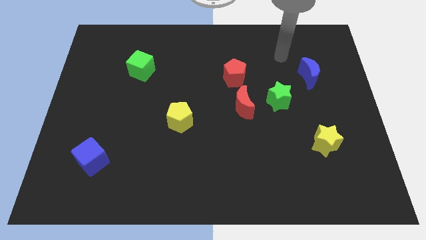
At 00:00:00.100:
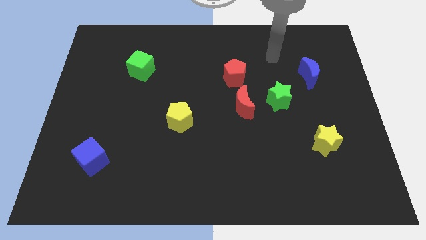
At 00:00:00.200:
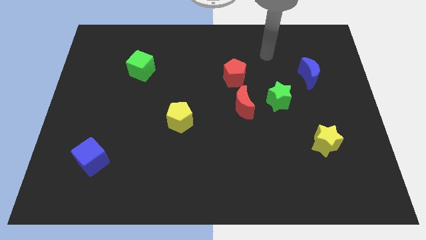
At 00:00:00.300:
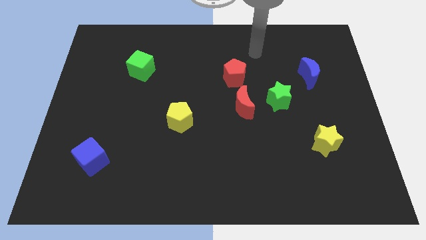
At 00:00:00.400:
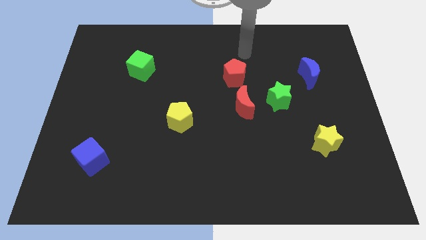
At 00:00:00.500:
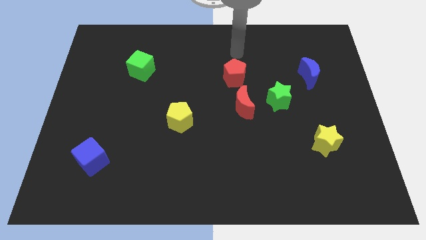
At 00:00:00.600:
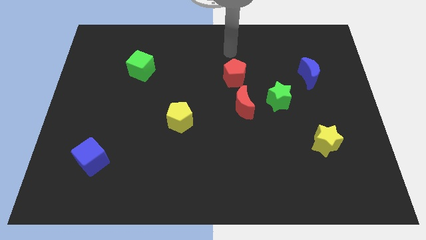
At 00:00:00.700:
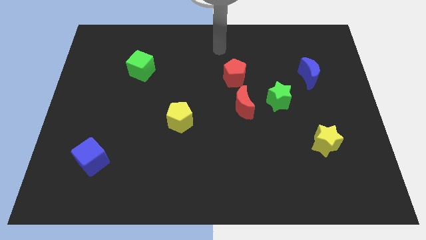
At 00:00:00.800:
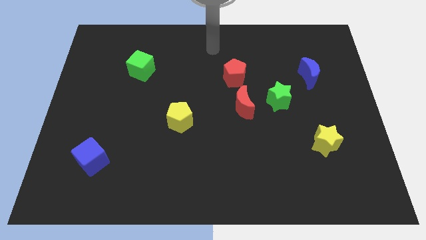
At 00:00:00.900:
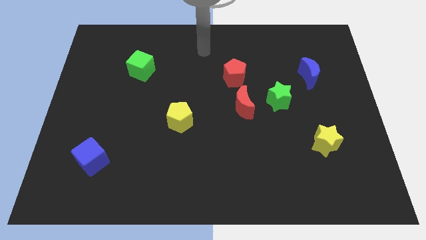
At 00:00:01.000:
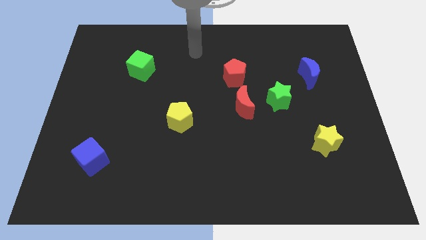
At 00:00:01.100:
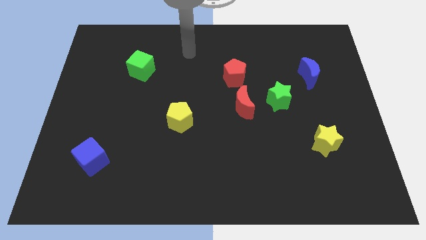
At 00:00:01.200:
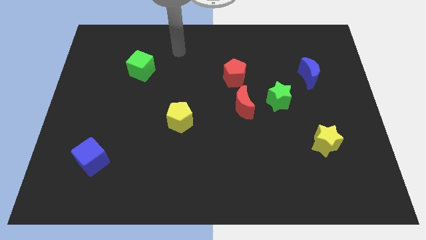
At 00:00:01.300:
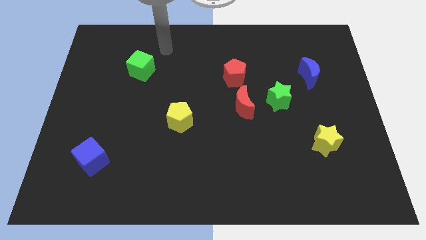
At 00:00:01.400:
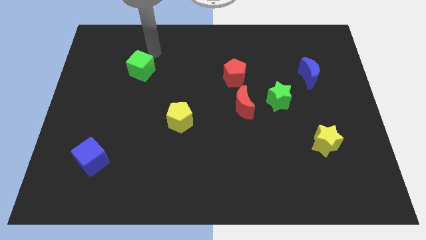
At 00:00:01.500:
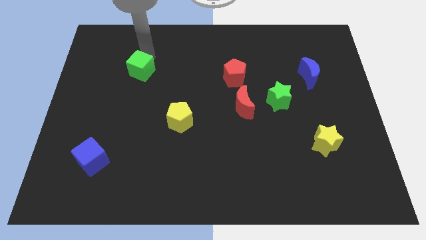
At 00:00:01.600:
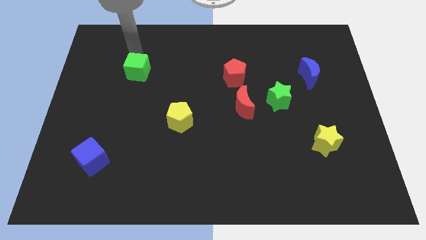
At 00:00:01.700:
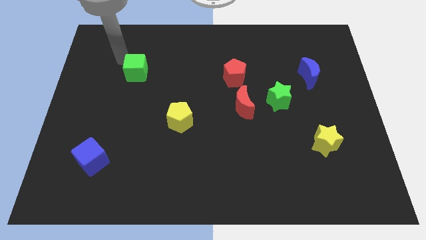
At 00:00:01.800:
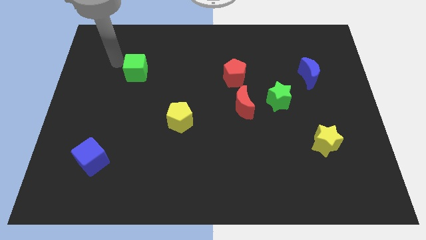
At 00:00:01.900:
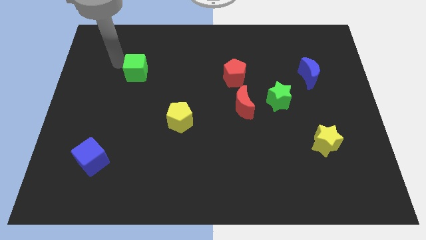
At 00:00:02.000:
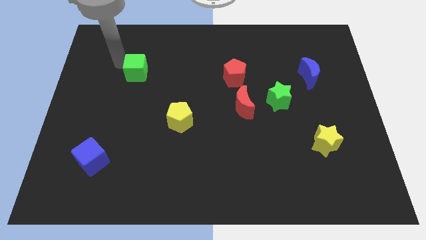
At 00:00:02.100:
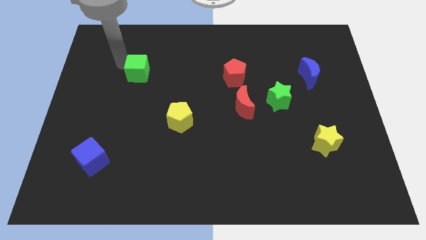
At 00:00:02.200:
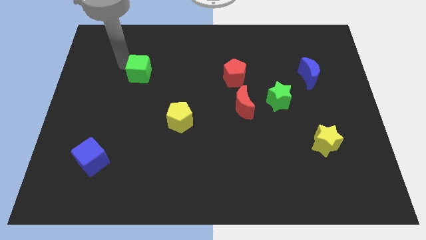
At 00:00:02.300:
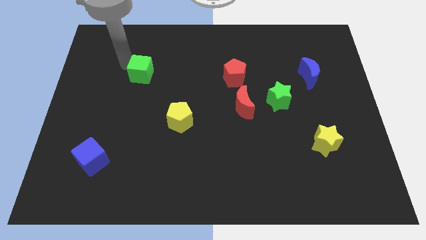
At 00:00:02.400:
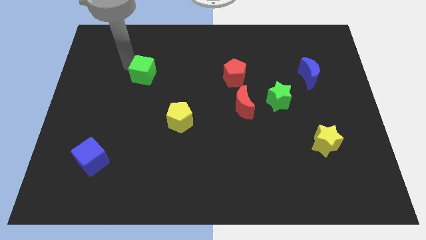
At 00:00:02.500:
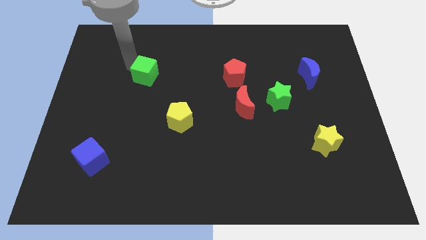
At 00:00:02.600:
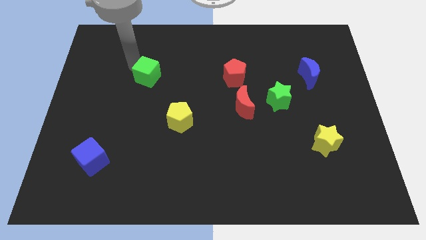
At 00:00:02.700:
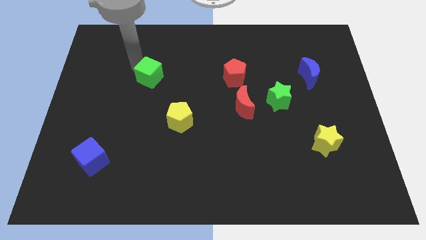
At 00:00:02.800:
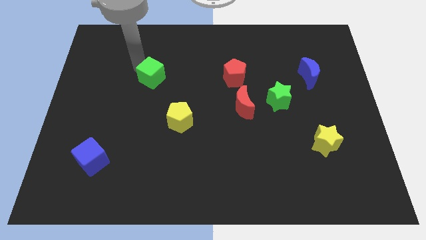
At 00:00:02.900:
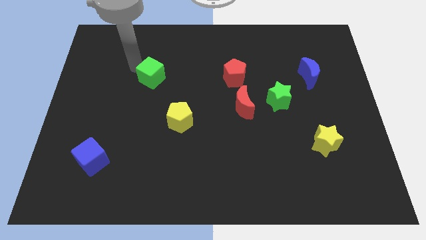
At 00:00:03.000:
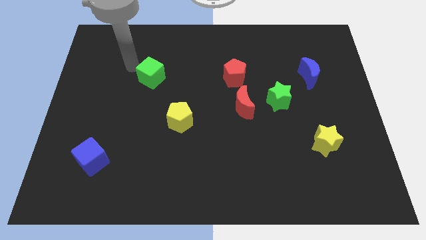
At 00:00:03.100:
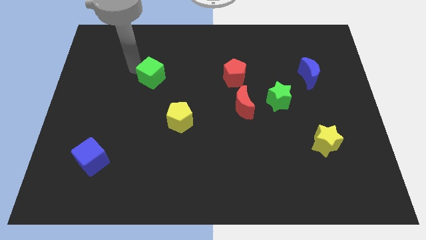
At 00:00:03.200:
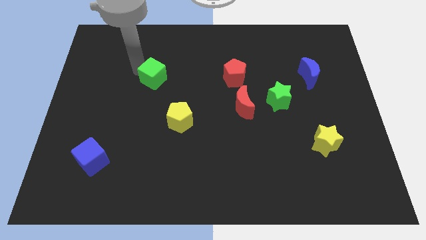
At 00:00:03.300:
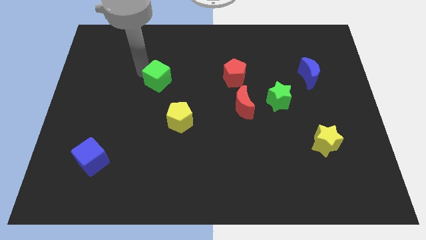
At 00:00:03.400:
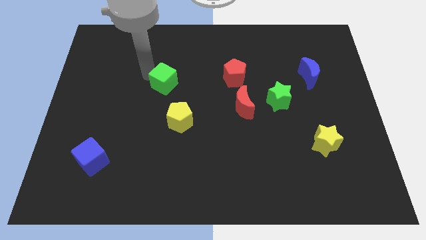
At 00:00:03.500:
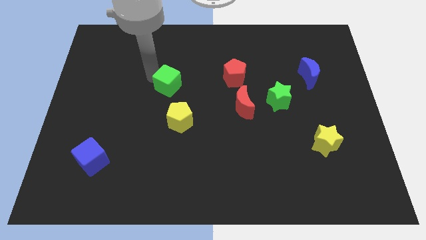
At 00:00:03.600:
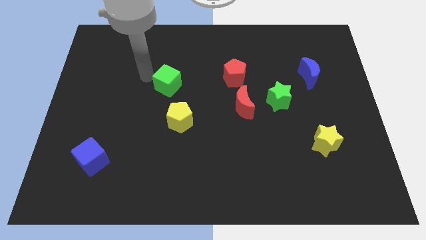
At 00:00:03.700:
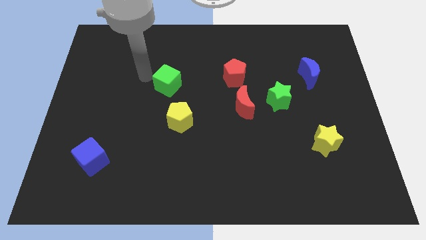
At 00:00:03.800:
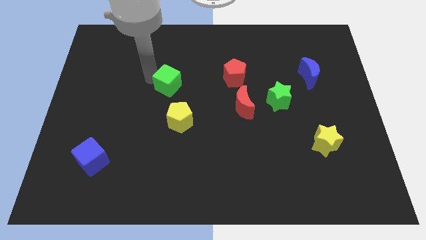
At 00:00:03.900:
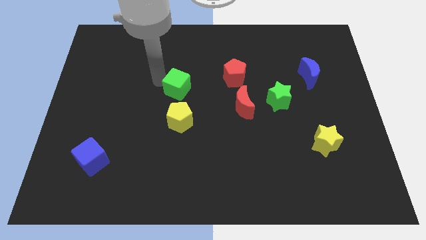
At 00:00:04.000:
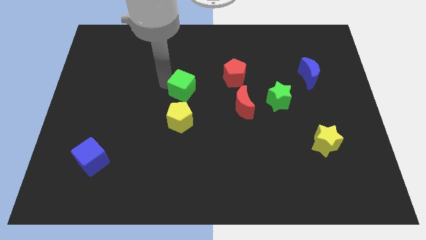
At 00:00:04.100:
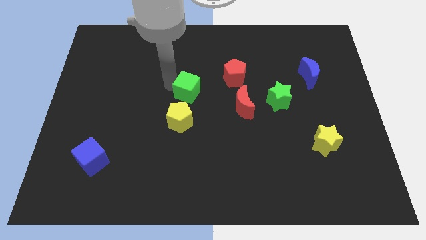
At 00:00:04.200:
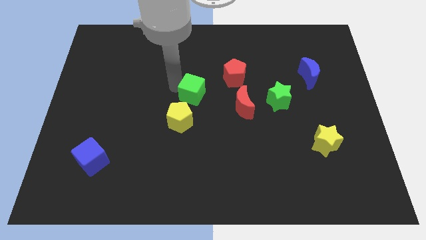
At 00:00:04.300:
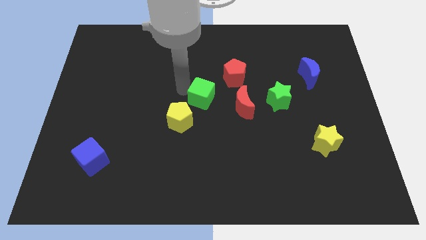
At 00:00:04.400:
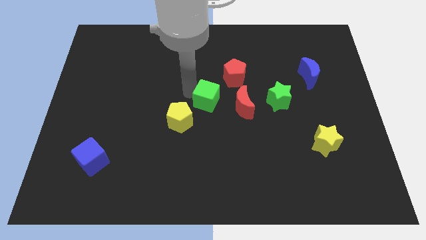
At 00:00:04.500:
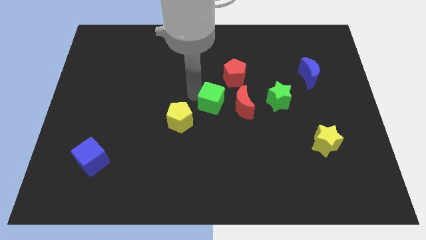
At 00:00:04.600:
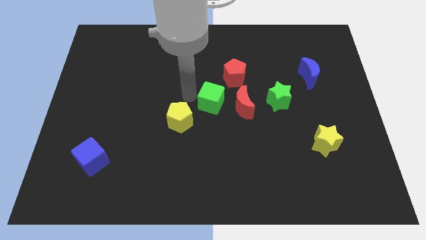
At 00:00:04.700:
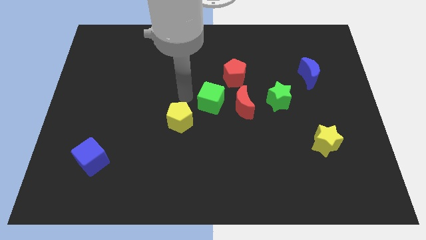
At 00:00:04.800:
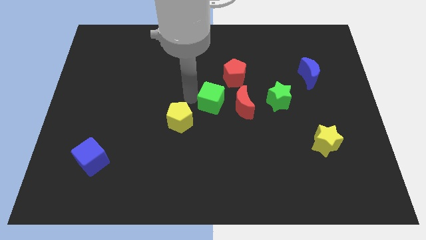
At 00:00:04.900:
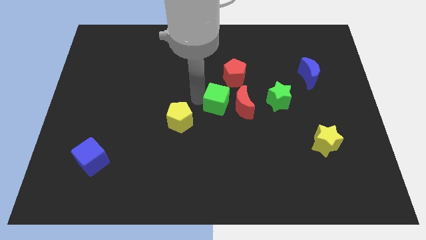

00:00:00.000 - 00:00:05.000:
slide the green cube towards the red moon

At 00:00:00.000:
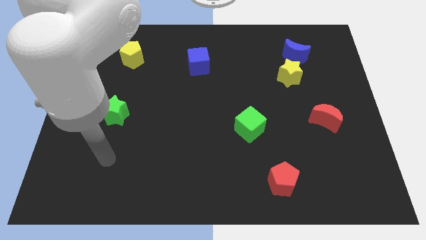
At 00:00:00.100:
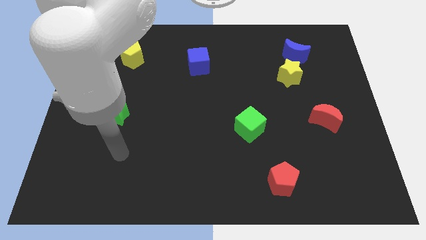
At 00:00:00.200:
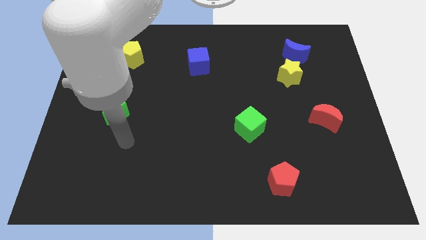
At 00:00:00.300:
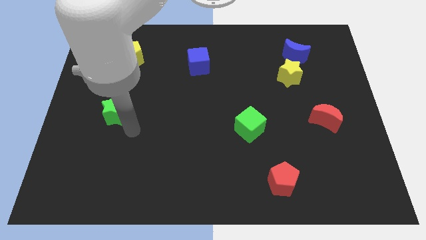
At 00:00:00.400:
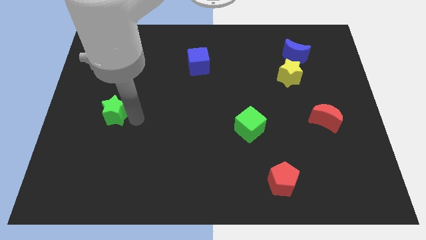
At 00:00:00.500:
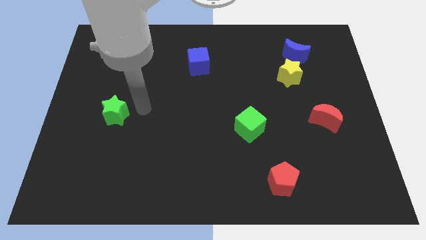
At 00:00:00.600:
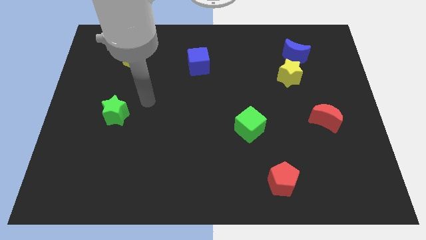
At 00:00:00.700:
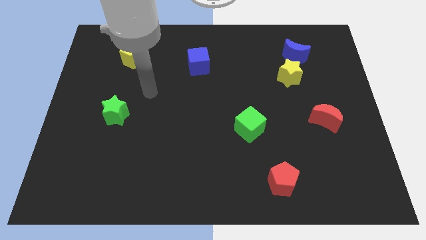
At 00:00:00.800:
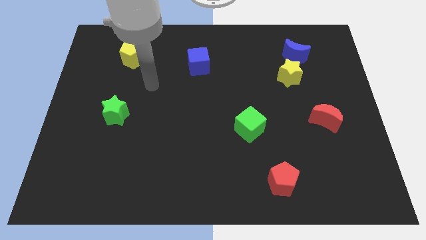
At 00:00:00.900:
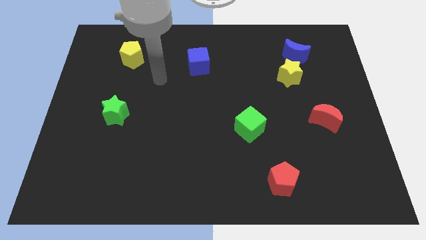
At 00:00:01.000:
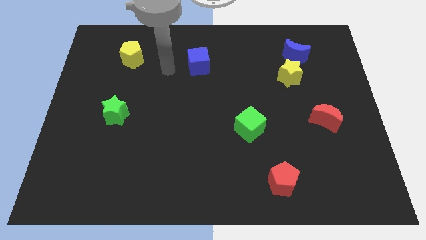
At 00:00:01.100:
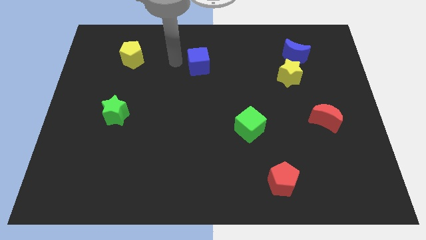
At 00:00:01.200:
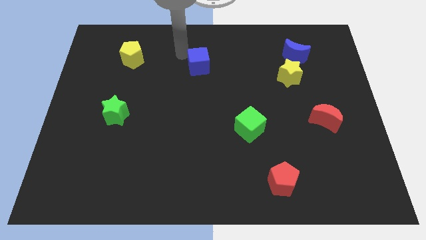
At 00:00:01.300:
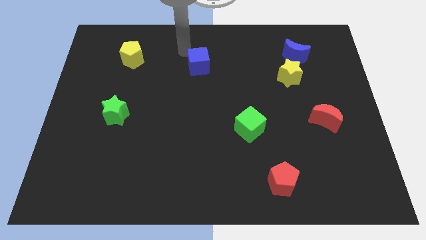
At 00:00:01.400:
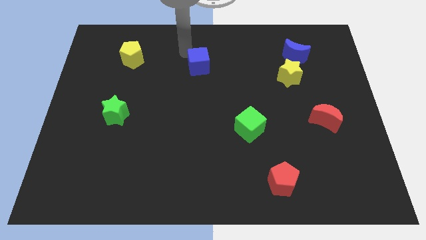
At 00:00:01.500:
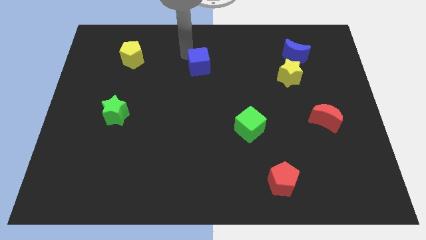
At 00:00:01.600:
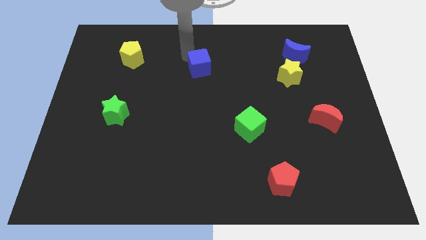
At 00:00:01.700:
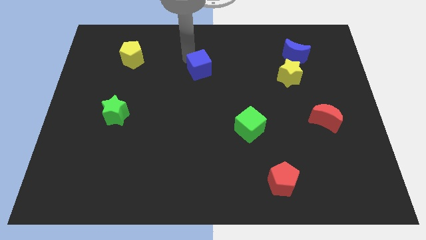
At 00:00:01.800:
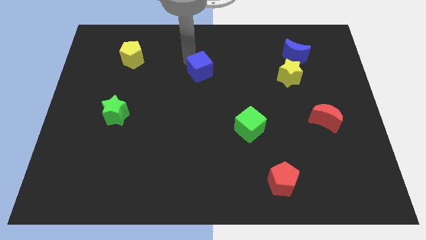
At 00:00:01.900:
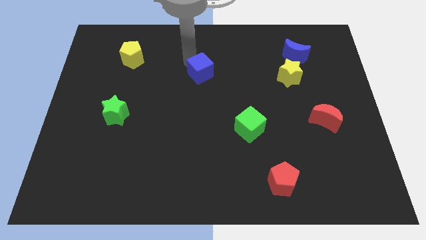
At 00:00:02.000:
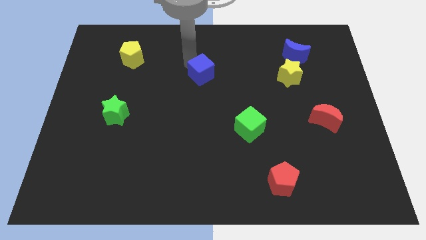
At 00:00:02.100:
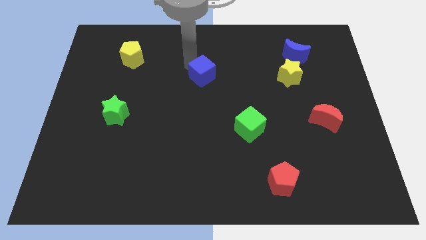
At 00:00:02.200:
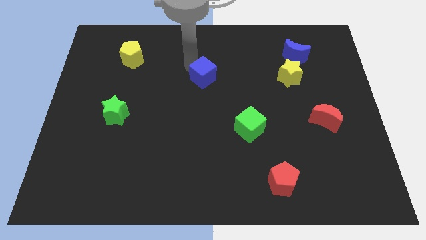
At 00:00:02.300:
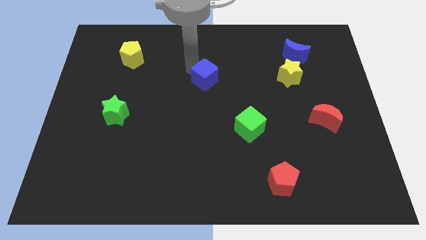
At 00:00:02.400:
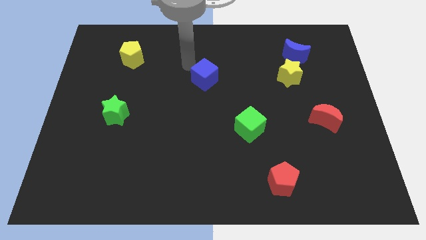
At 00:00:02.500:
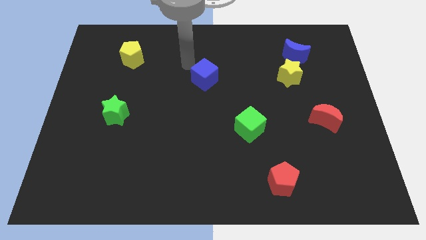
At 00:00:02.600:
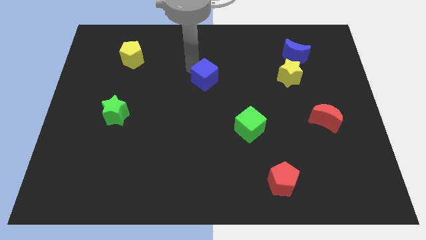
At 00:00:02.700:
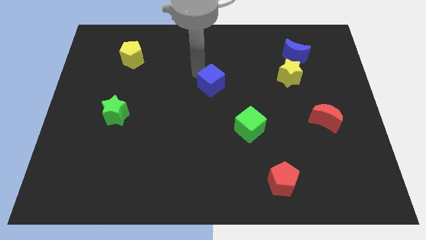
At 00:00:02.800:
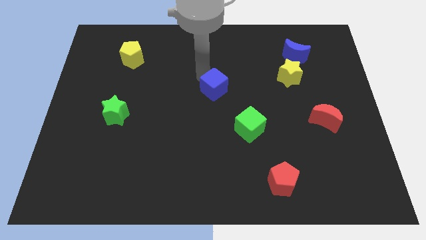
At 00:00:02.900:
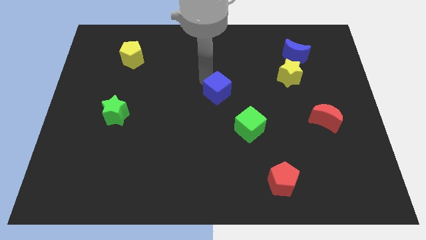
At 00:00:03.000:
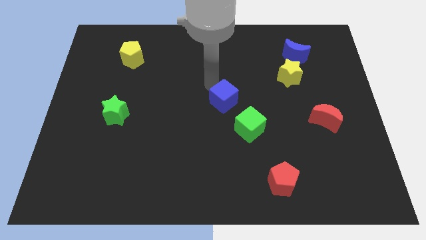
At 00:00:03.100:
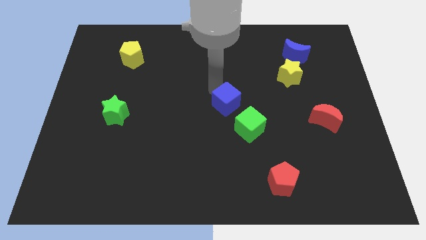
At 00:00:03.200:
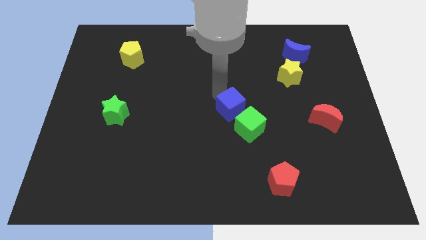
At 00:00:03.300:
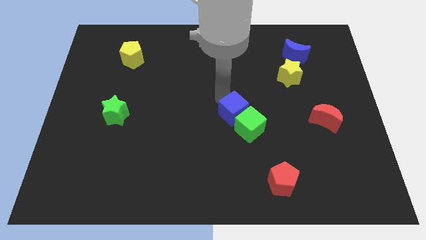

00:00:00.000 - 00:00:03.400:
move the blue cube to the green cube
